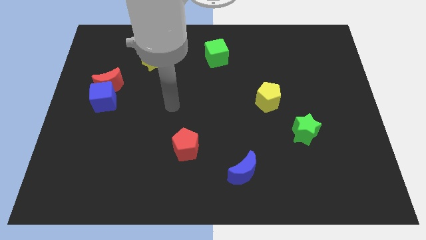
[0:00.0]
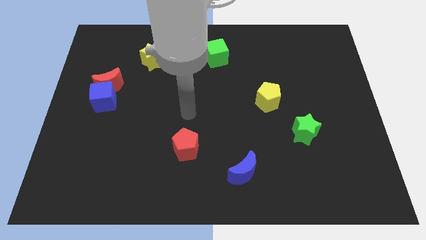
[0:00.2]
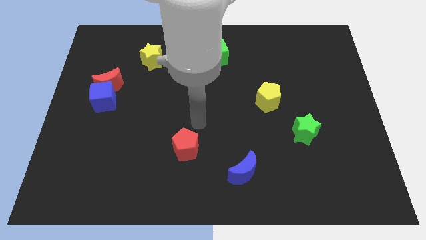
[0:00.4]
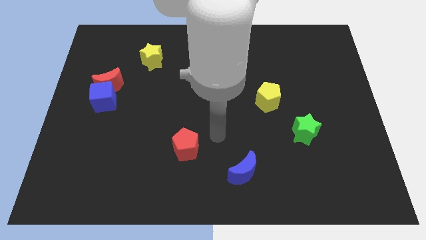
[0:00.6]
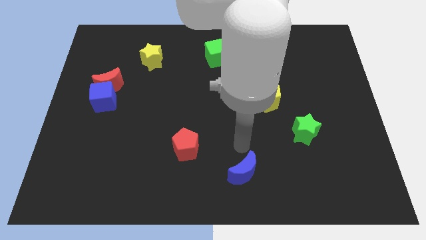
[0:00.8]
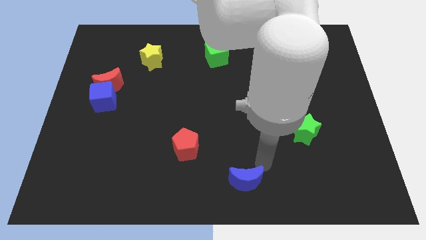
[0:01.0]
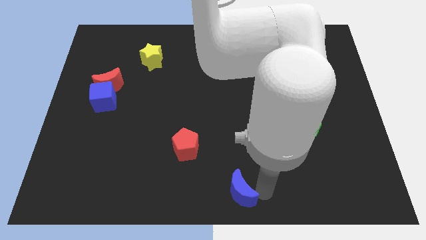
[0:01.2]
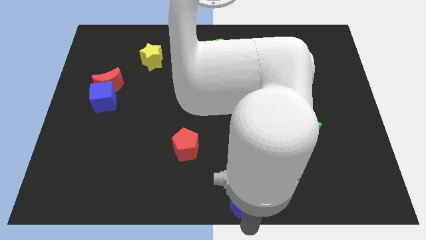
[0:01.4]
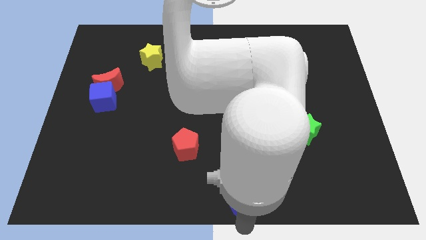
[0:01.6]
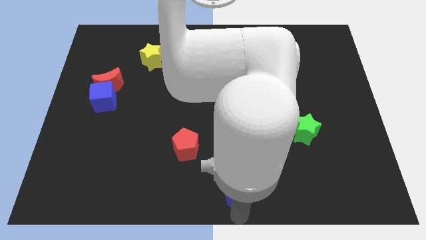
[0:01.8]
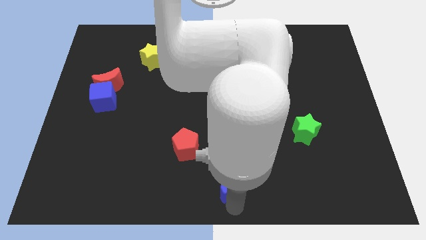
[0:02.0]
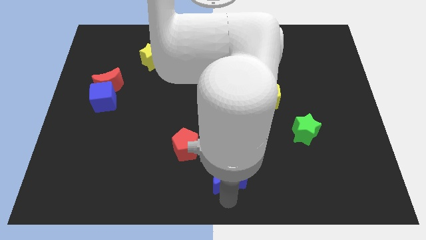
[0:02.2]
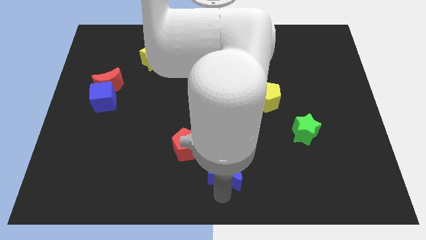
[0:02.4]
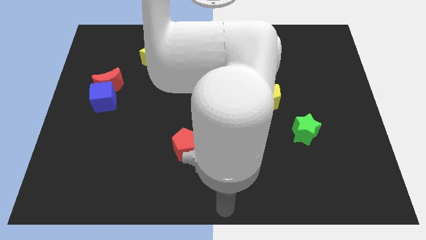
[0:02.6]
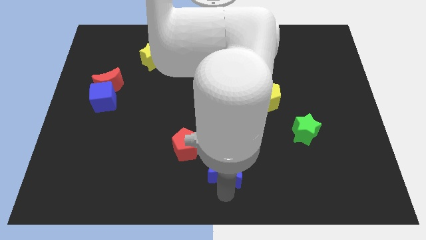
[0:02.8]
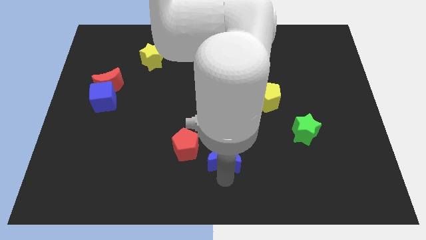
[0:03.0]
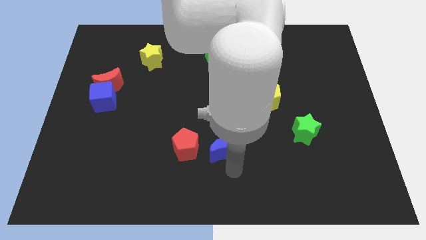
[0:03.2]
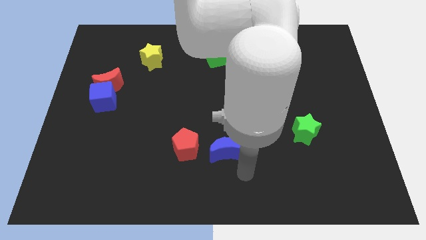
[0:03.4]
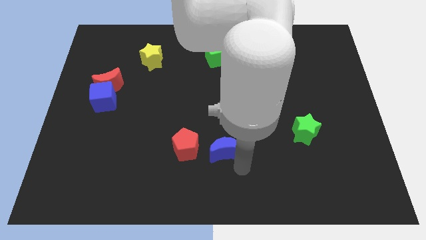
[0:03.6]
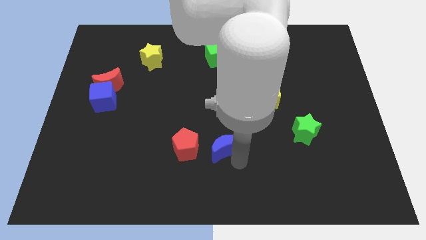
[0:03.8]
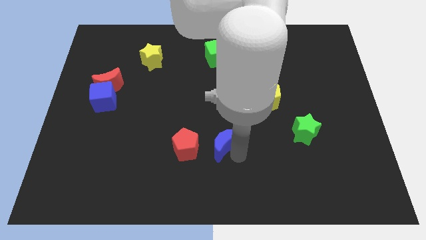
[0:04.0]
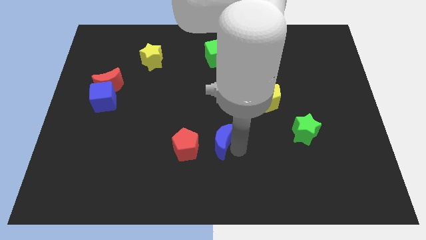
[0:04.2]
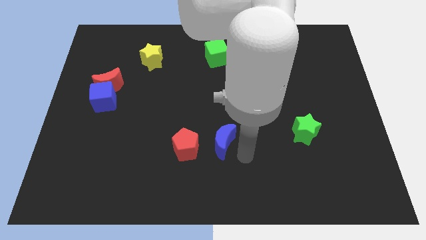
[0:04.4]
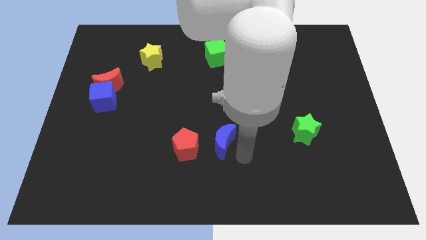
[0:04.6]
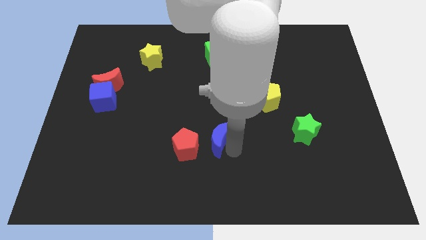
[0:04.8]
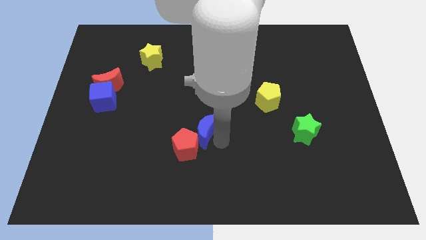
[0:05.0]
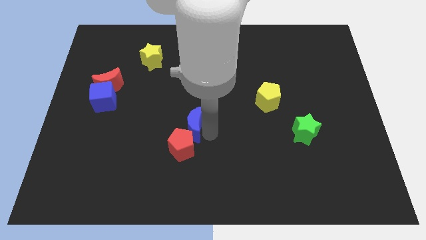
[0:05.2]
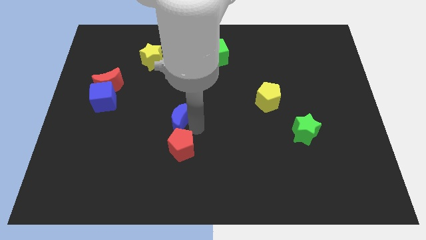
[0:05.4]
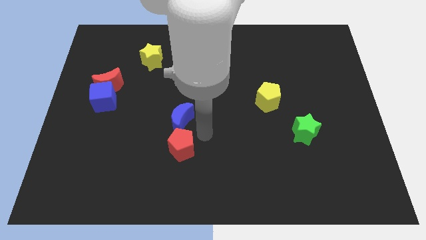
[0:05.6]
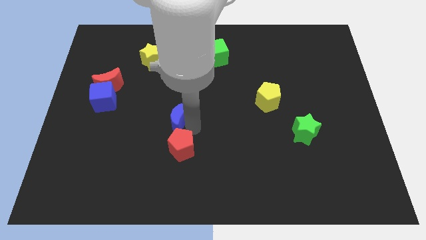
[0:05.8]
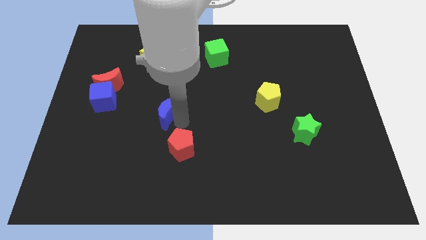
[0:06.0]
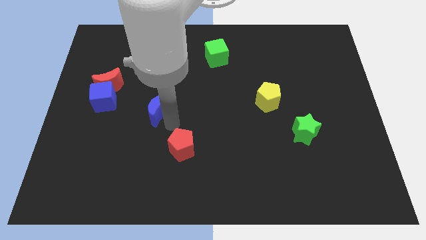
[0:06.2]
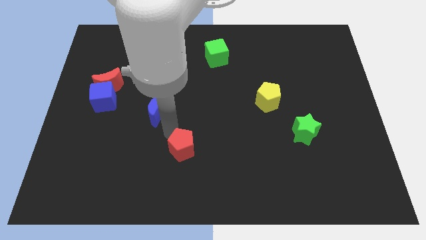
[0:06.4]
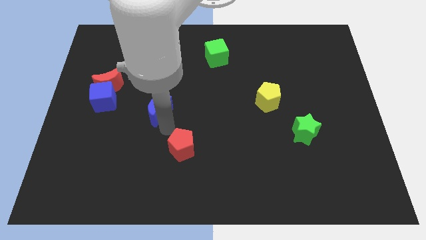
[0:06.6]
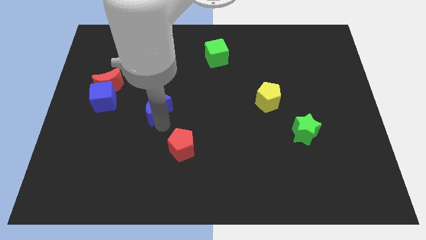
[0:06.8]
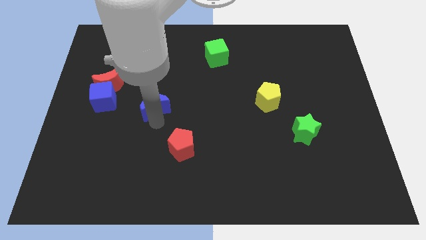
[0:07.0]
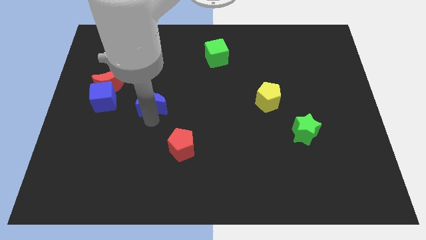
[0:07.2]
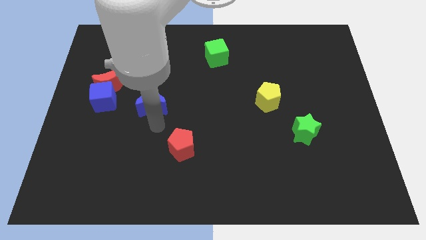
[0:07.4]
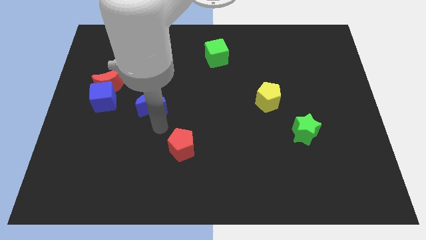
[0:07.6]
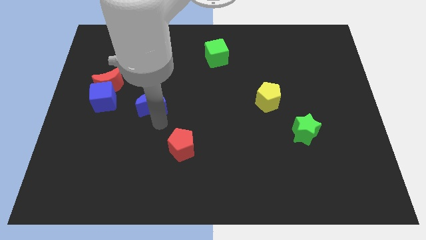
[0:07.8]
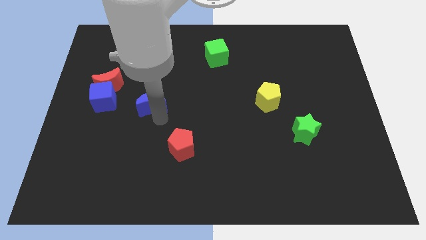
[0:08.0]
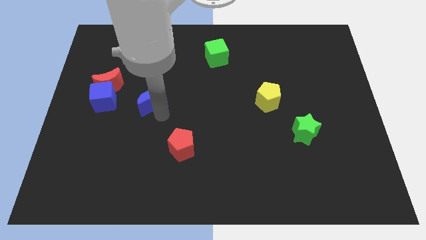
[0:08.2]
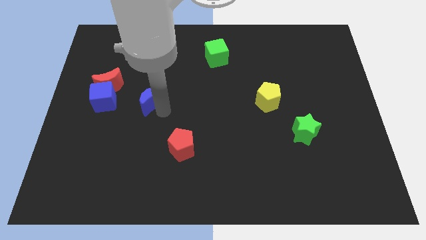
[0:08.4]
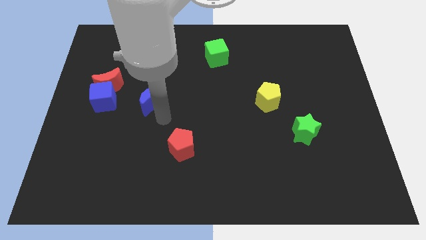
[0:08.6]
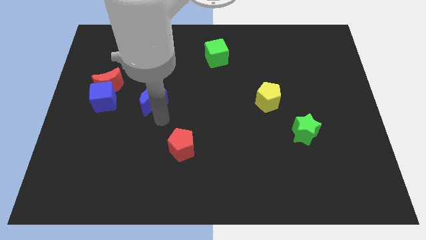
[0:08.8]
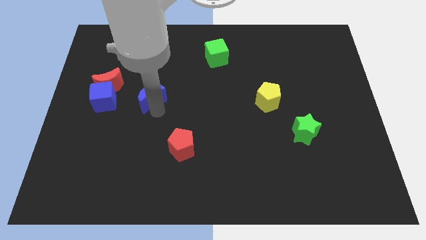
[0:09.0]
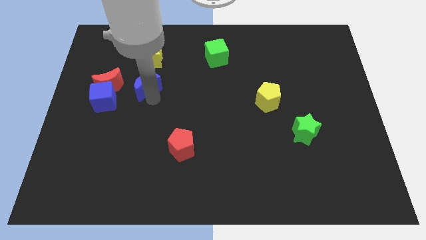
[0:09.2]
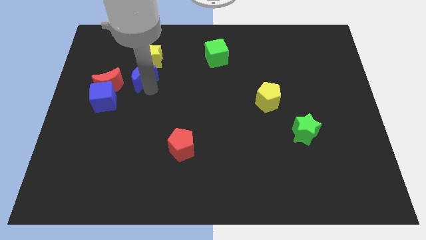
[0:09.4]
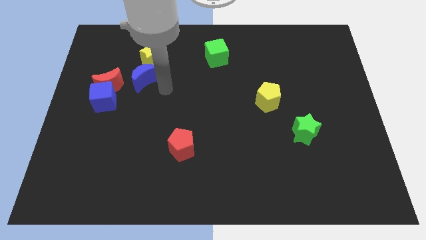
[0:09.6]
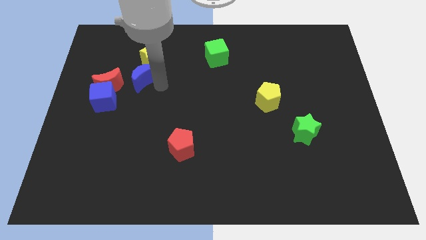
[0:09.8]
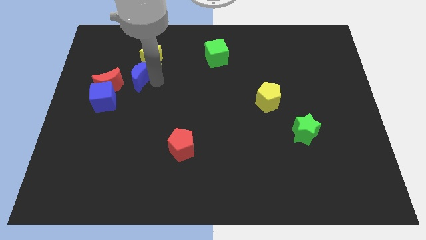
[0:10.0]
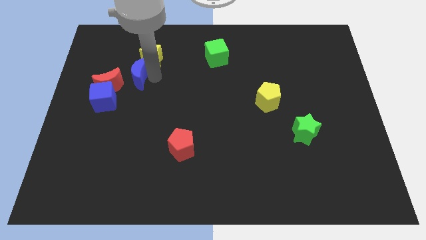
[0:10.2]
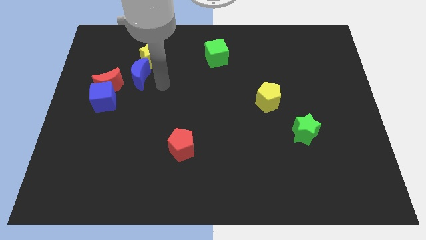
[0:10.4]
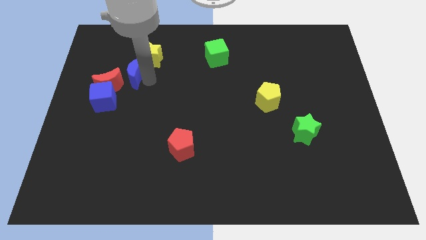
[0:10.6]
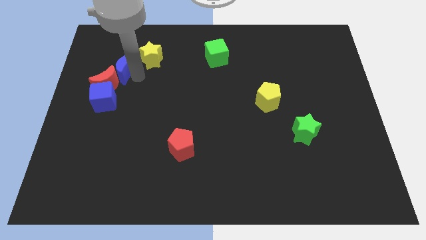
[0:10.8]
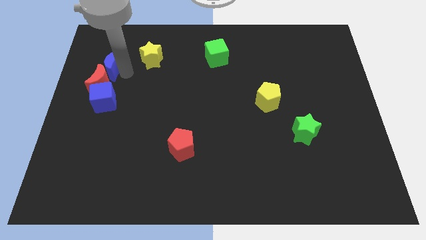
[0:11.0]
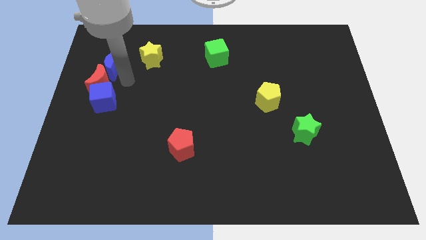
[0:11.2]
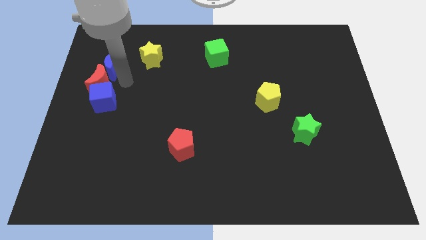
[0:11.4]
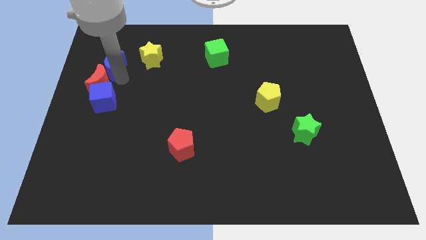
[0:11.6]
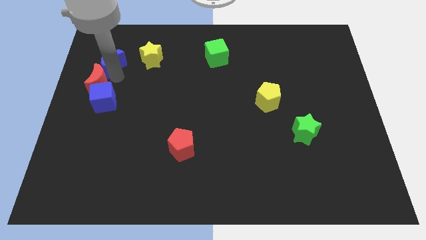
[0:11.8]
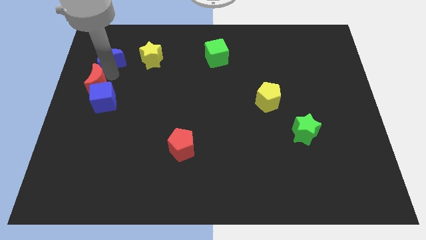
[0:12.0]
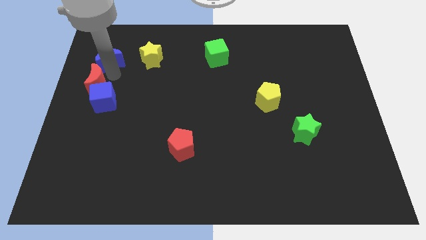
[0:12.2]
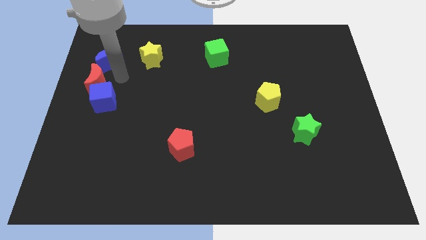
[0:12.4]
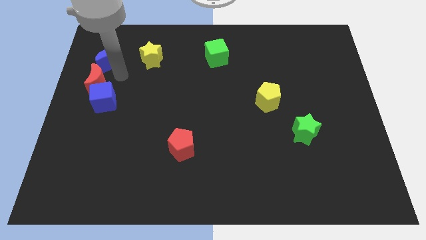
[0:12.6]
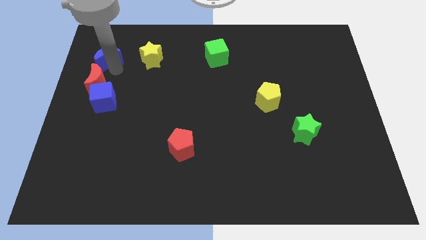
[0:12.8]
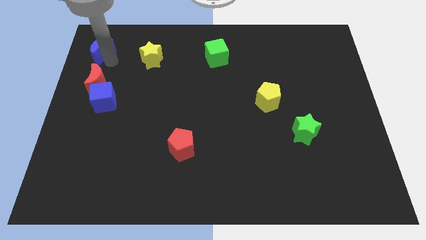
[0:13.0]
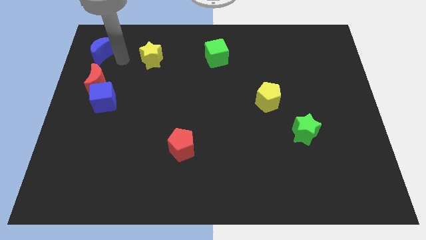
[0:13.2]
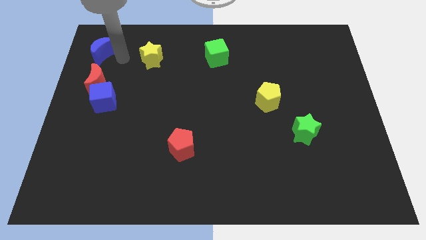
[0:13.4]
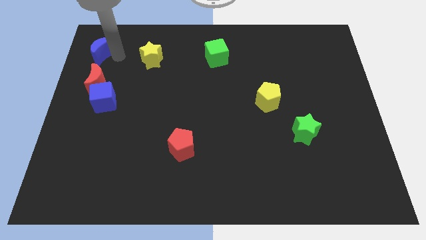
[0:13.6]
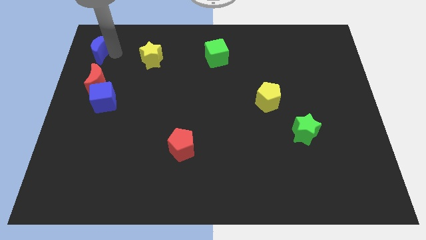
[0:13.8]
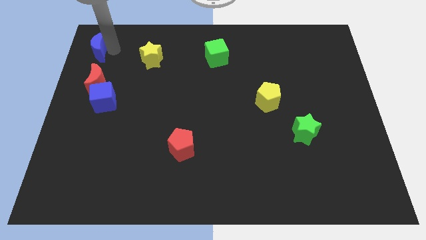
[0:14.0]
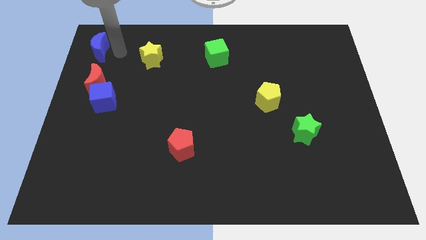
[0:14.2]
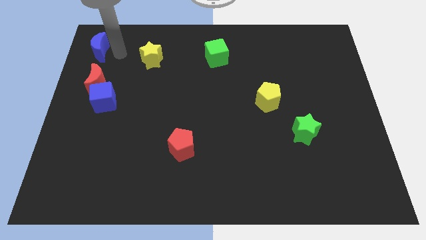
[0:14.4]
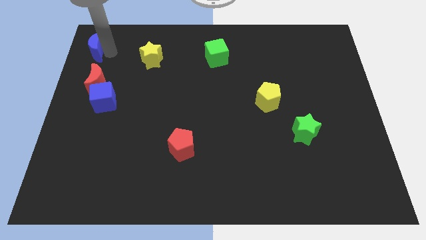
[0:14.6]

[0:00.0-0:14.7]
move the blue moon to the upper left corner

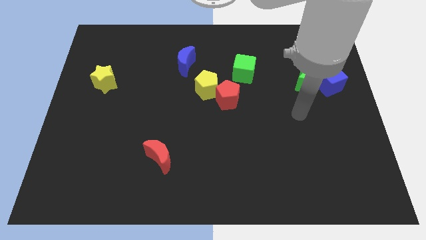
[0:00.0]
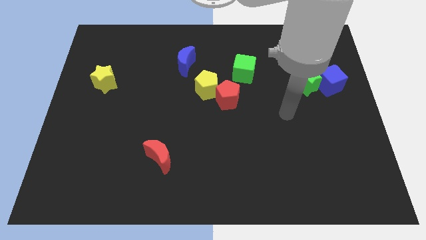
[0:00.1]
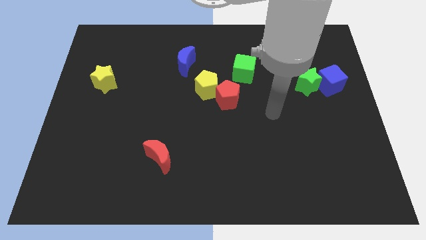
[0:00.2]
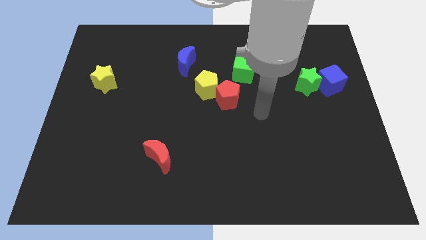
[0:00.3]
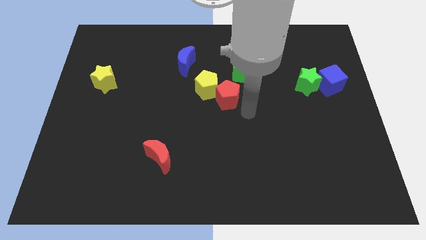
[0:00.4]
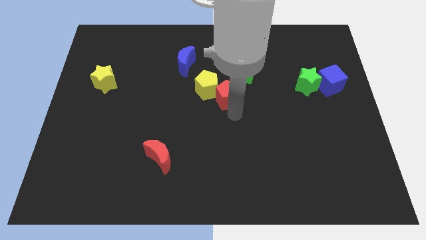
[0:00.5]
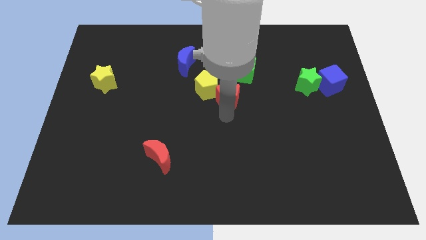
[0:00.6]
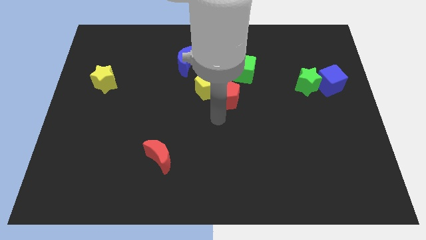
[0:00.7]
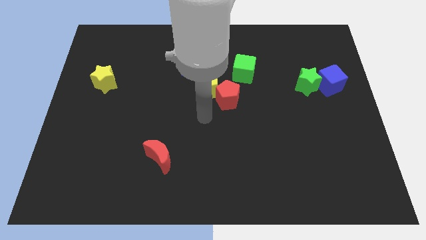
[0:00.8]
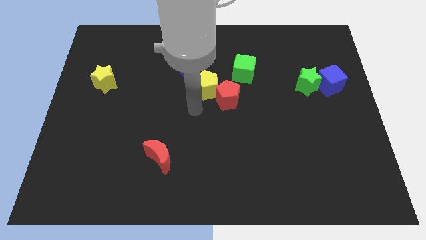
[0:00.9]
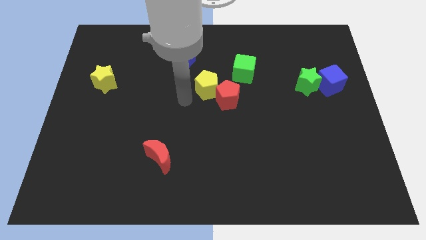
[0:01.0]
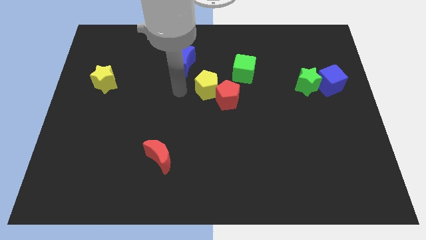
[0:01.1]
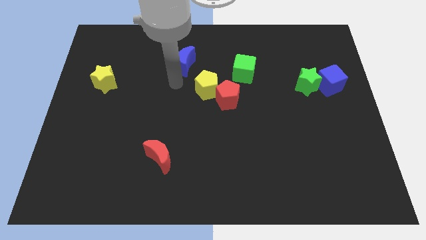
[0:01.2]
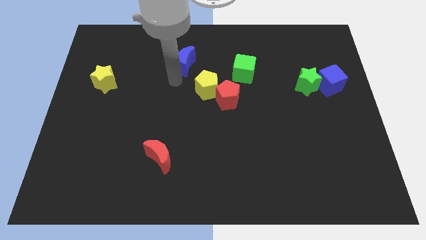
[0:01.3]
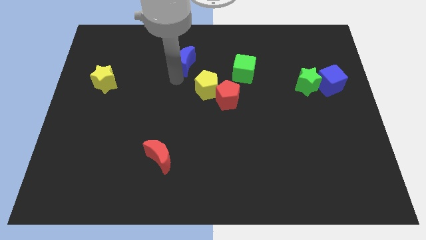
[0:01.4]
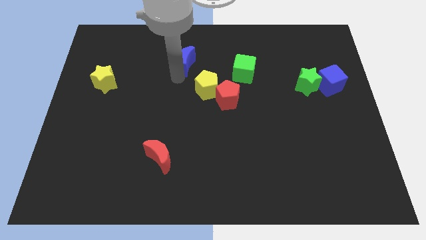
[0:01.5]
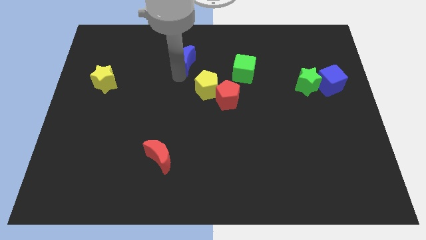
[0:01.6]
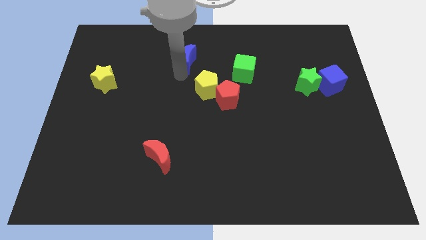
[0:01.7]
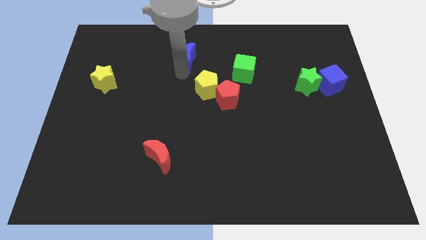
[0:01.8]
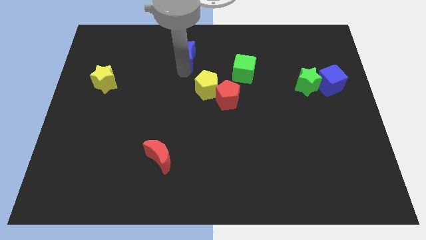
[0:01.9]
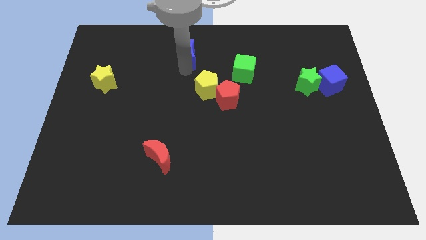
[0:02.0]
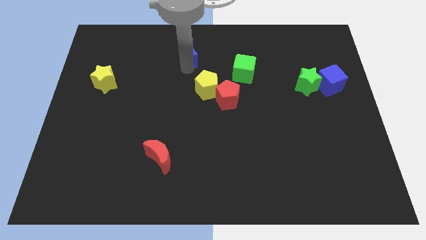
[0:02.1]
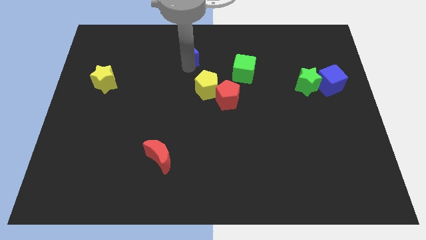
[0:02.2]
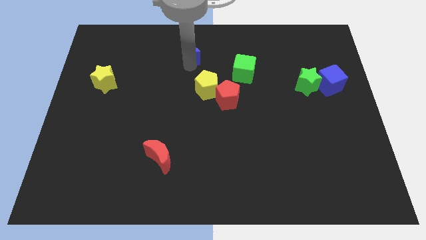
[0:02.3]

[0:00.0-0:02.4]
move the blue moon to the towards your base
